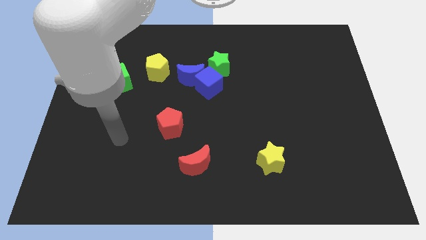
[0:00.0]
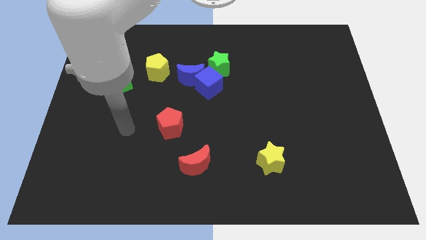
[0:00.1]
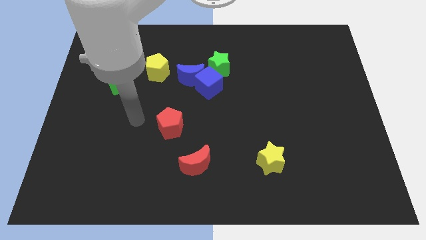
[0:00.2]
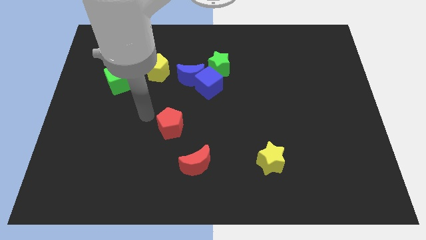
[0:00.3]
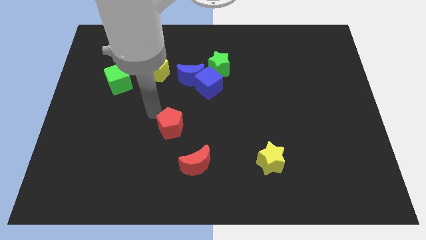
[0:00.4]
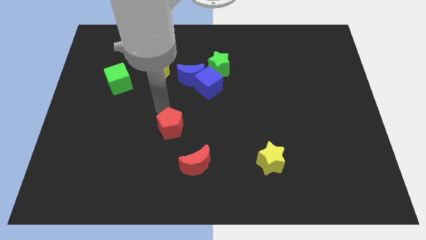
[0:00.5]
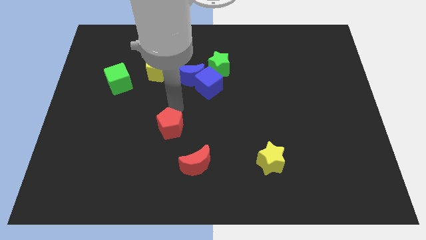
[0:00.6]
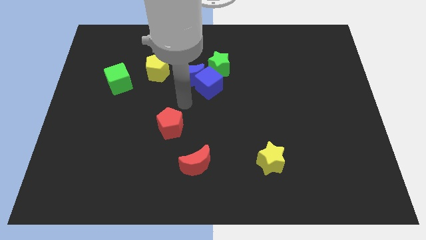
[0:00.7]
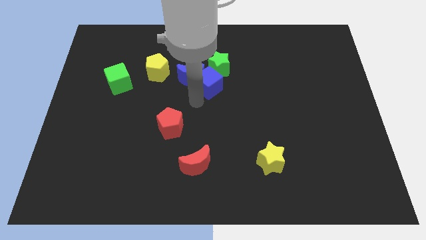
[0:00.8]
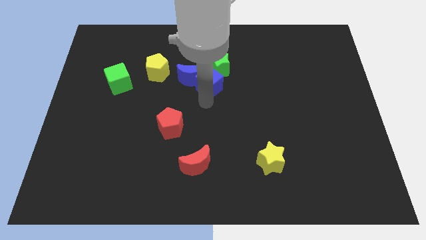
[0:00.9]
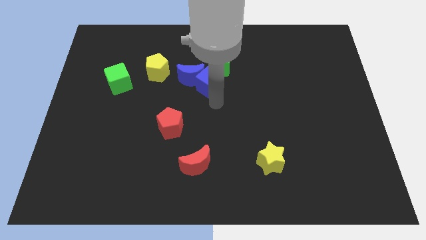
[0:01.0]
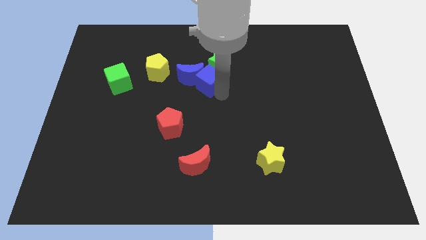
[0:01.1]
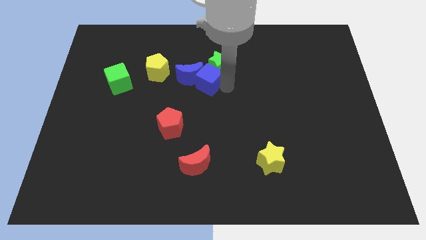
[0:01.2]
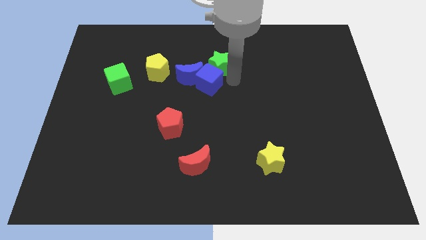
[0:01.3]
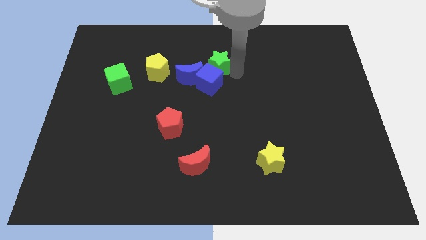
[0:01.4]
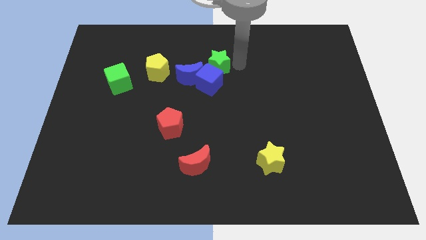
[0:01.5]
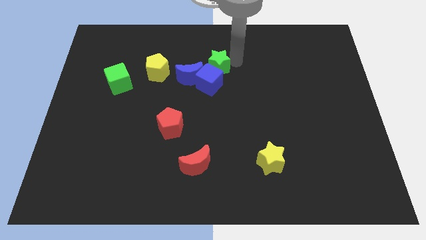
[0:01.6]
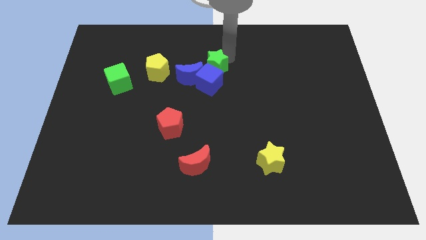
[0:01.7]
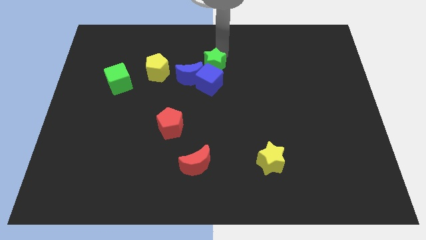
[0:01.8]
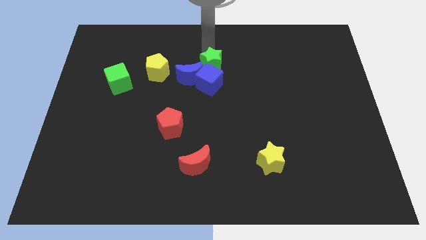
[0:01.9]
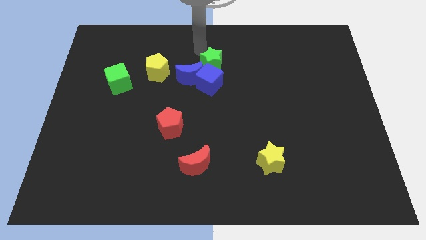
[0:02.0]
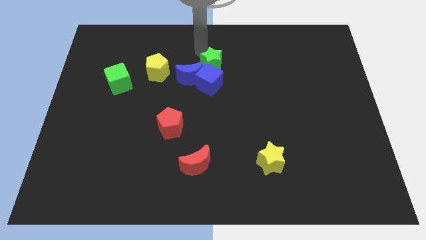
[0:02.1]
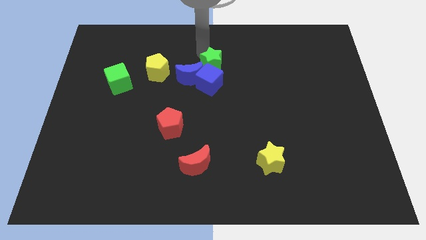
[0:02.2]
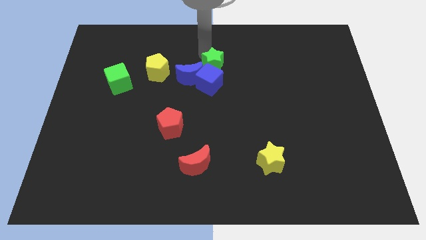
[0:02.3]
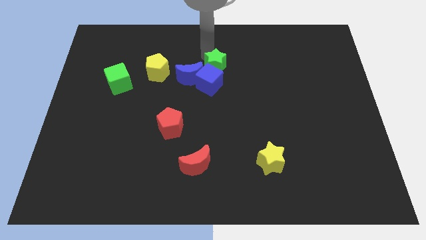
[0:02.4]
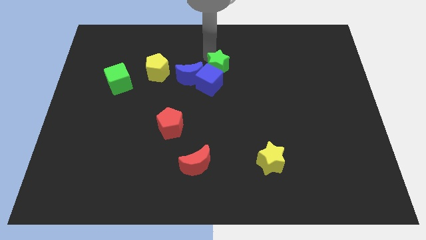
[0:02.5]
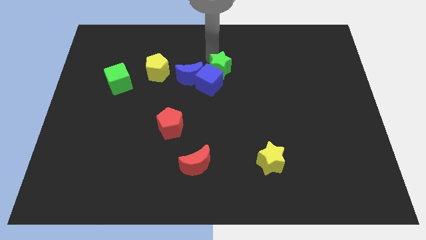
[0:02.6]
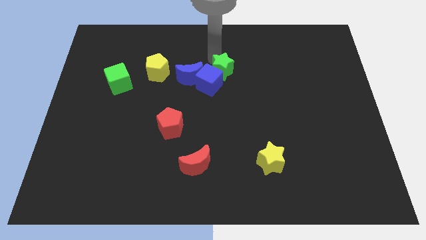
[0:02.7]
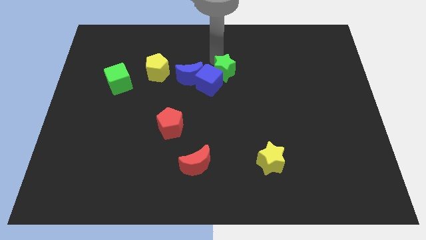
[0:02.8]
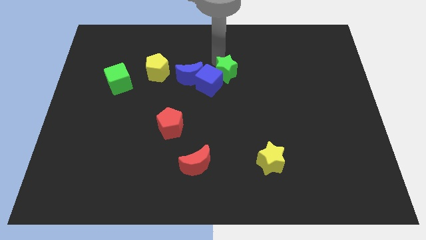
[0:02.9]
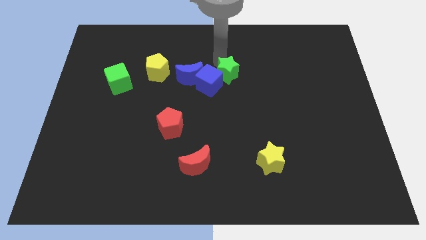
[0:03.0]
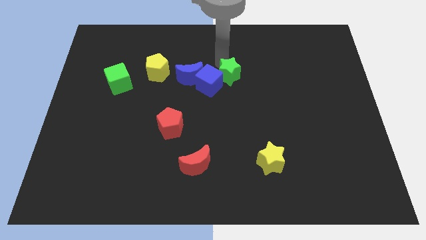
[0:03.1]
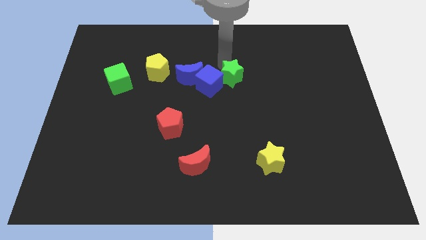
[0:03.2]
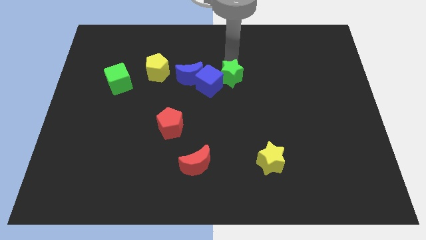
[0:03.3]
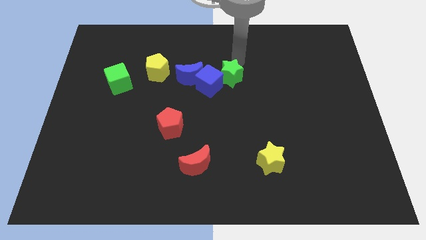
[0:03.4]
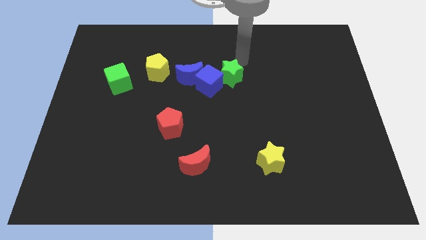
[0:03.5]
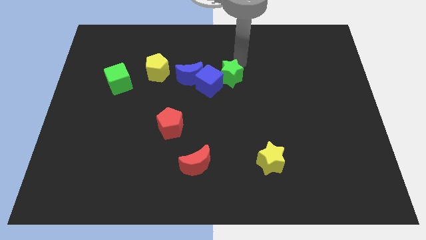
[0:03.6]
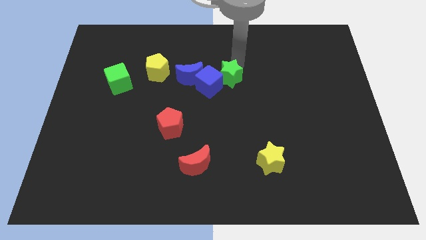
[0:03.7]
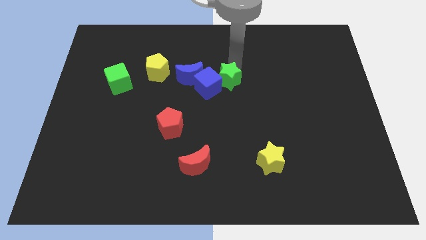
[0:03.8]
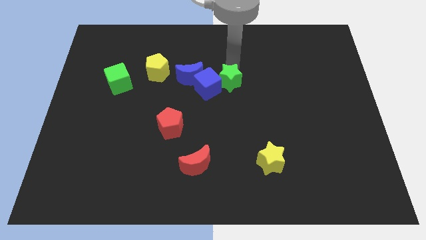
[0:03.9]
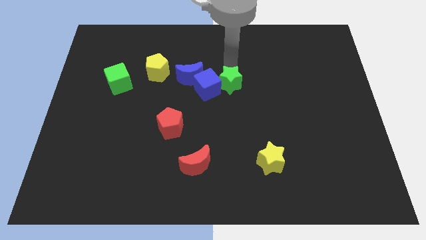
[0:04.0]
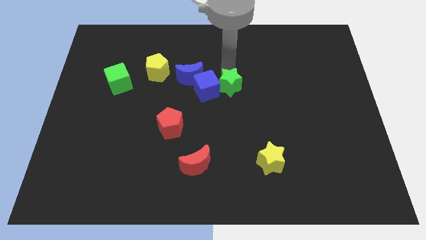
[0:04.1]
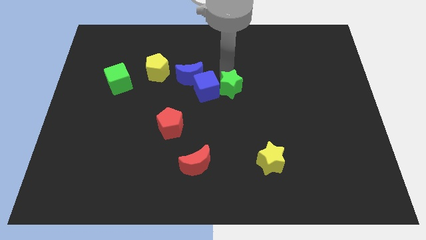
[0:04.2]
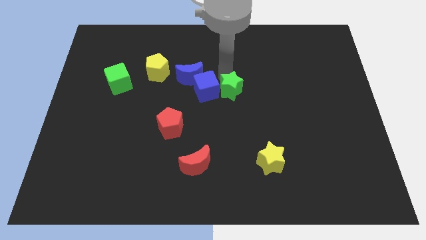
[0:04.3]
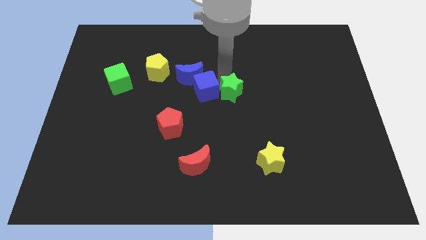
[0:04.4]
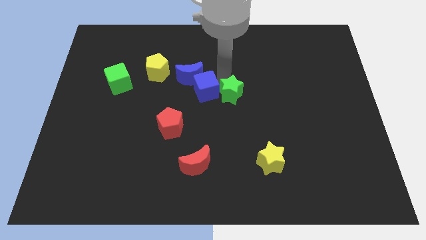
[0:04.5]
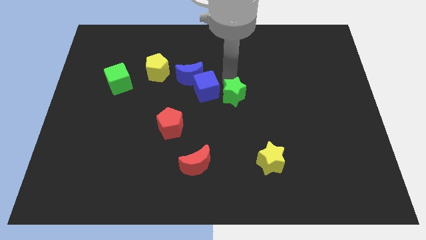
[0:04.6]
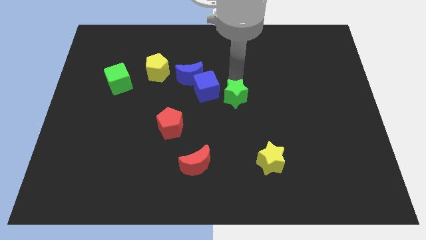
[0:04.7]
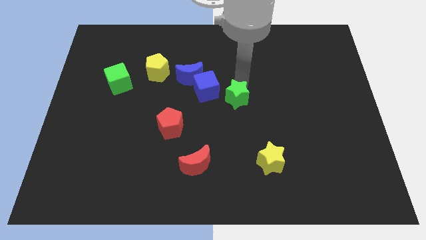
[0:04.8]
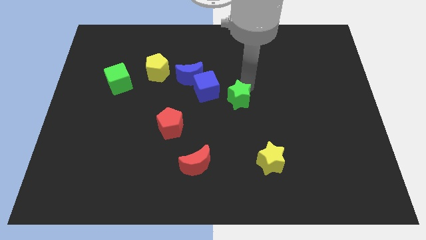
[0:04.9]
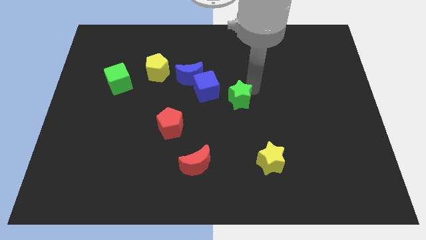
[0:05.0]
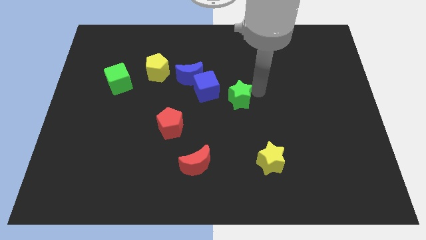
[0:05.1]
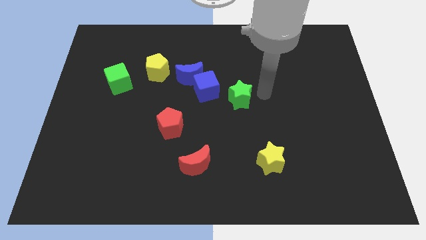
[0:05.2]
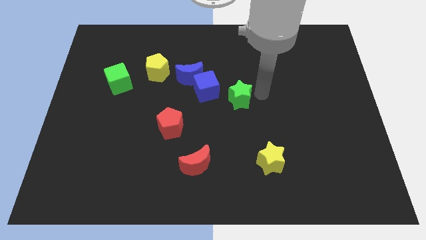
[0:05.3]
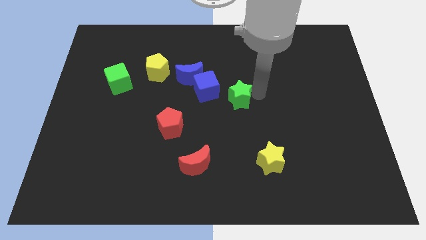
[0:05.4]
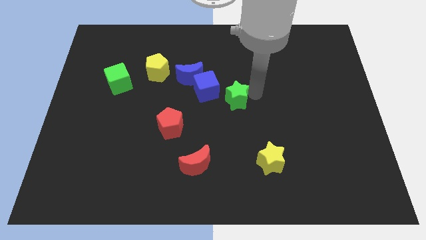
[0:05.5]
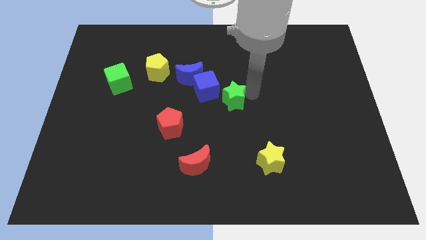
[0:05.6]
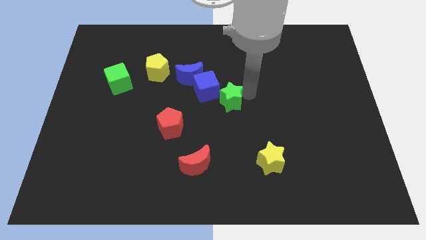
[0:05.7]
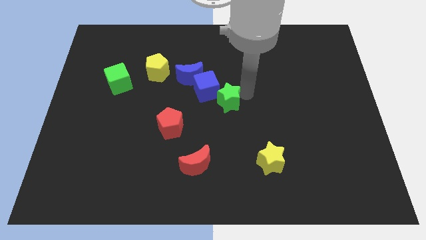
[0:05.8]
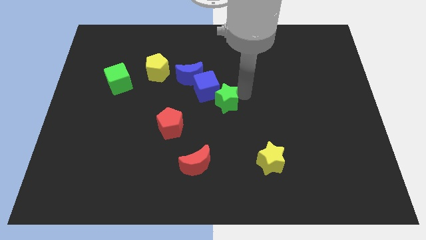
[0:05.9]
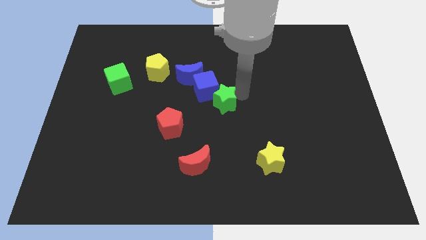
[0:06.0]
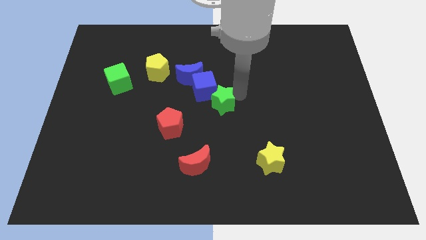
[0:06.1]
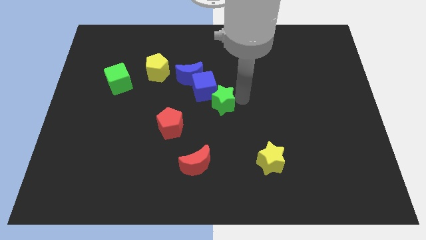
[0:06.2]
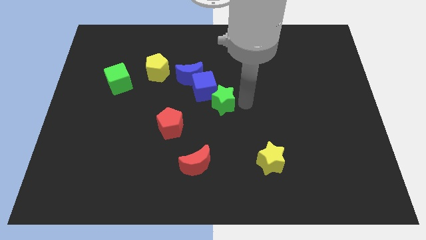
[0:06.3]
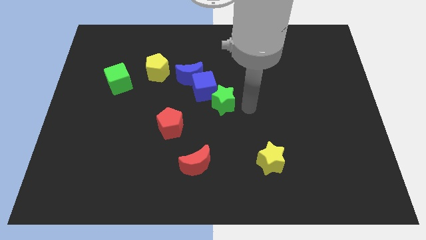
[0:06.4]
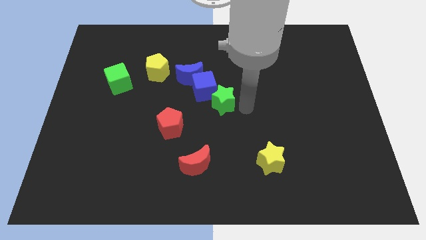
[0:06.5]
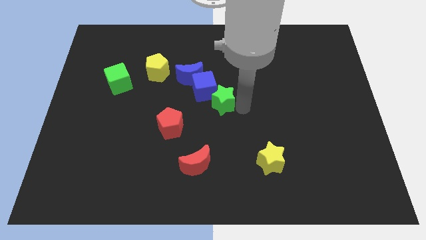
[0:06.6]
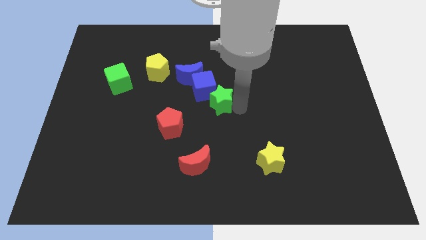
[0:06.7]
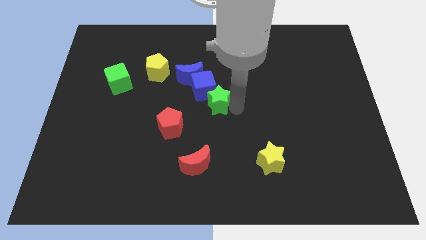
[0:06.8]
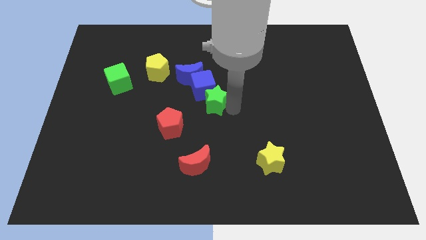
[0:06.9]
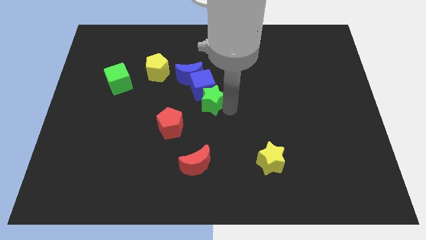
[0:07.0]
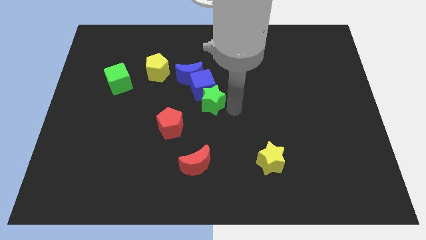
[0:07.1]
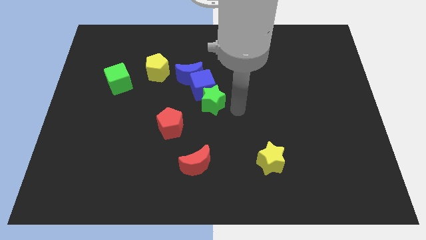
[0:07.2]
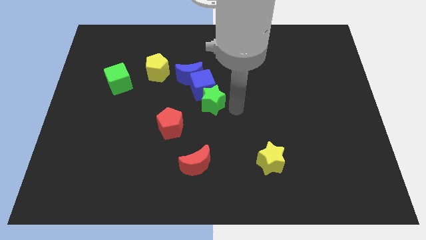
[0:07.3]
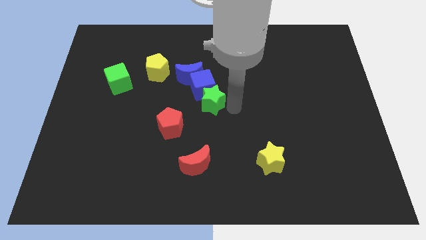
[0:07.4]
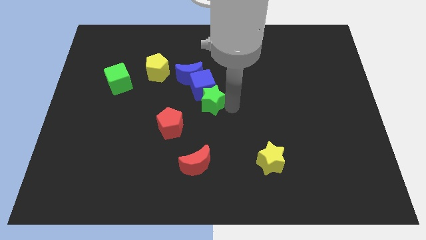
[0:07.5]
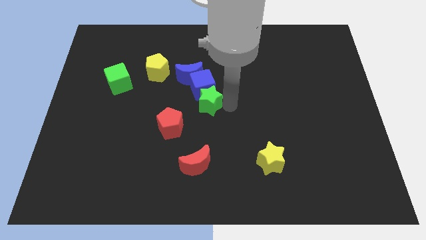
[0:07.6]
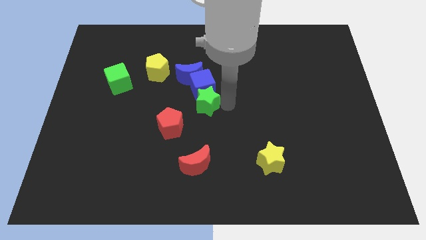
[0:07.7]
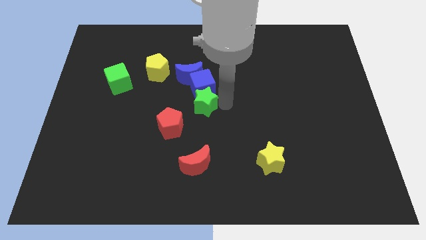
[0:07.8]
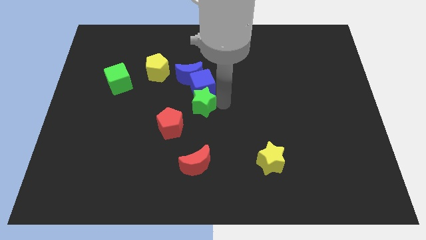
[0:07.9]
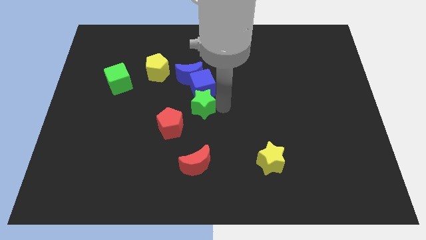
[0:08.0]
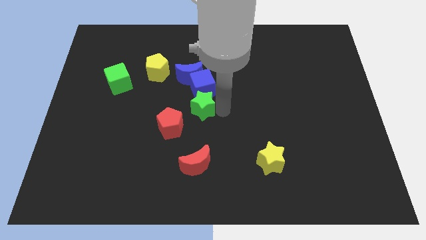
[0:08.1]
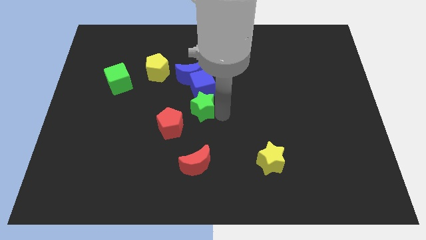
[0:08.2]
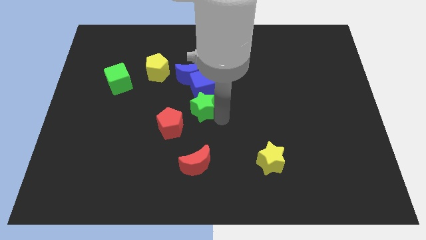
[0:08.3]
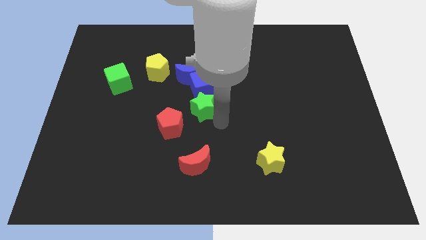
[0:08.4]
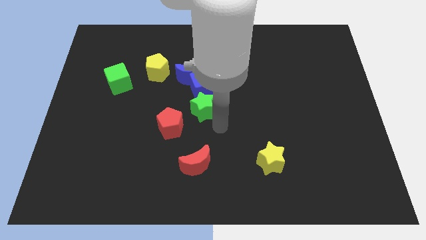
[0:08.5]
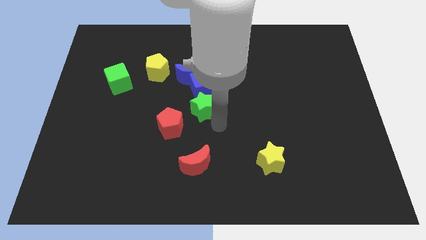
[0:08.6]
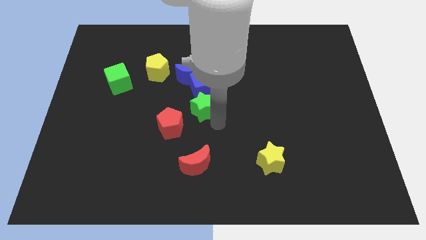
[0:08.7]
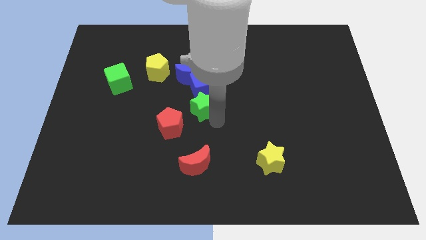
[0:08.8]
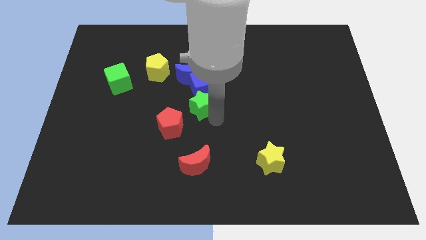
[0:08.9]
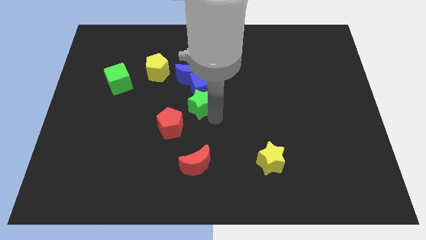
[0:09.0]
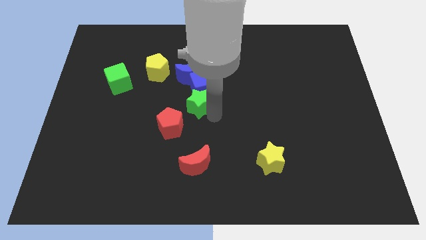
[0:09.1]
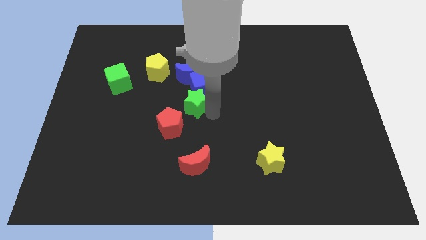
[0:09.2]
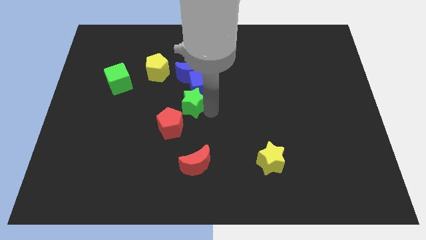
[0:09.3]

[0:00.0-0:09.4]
push the green star to the top of the red pentagon
